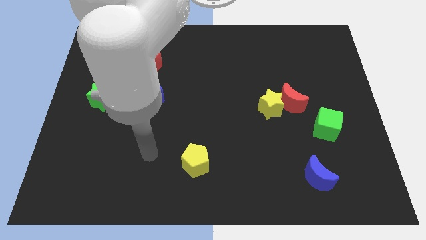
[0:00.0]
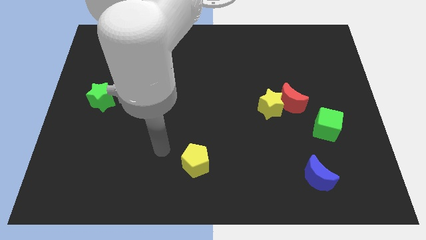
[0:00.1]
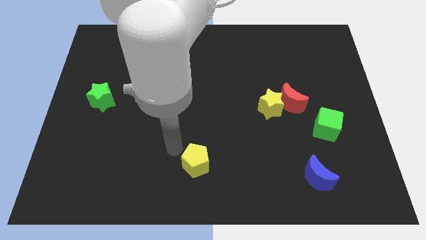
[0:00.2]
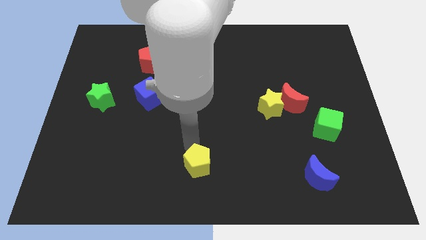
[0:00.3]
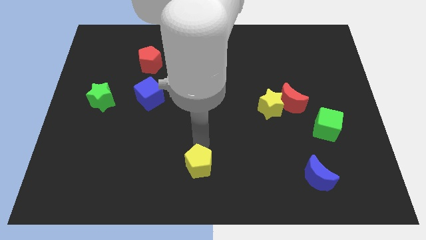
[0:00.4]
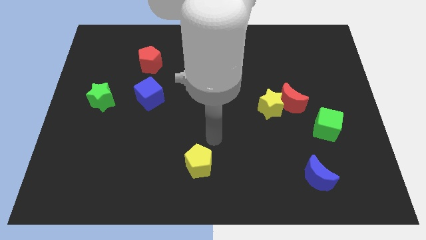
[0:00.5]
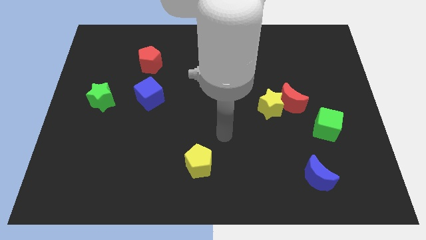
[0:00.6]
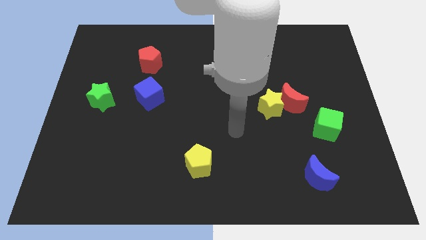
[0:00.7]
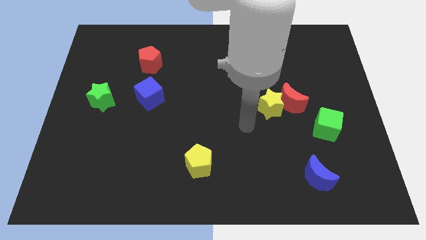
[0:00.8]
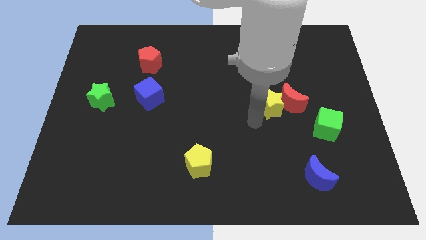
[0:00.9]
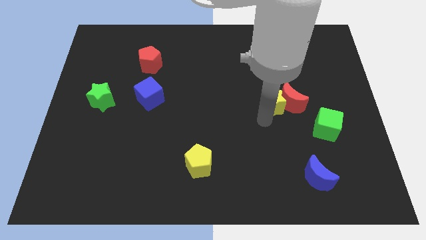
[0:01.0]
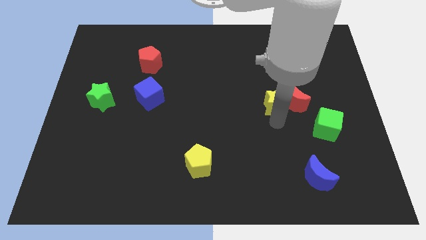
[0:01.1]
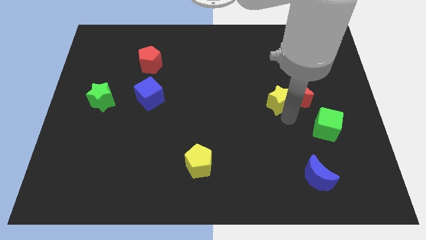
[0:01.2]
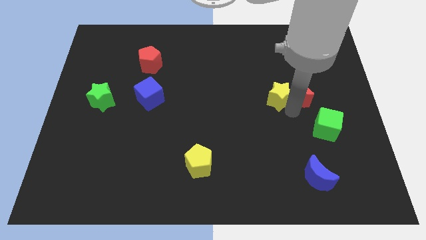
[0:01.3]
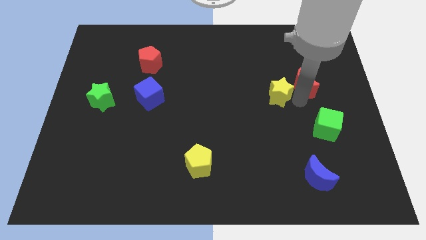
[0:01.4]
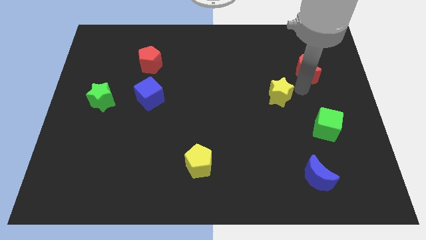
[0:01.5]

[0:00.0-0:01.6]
separate the yellow star from the red moon

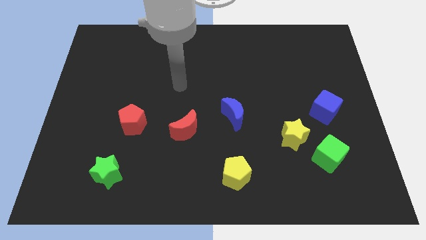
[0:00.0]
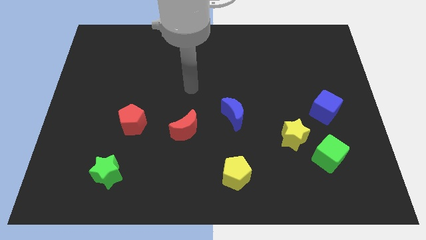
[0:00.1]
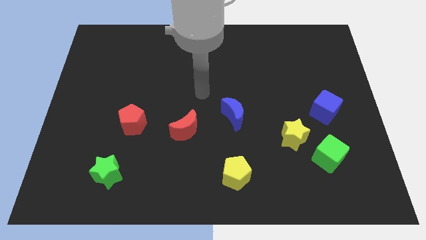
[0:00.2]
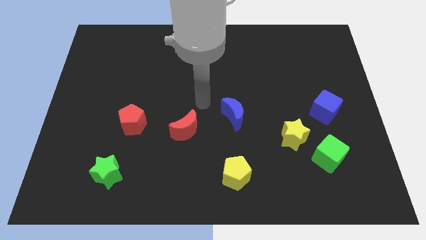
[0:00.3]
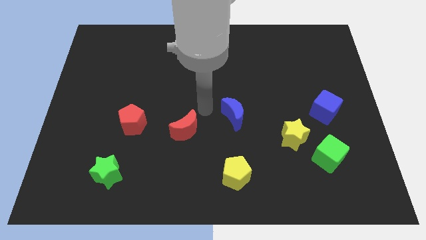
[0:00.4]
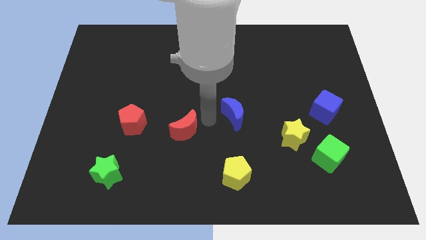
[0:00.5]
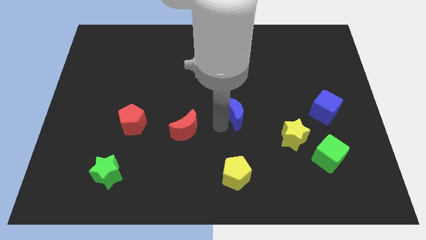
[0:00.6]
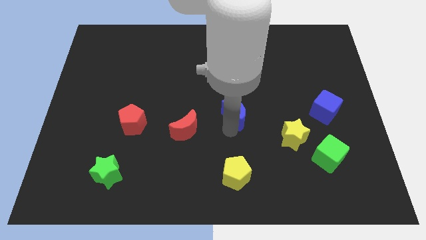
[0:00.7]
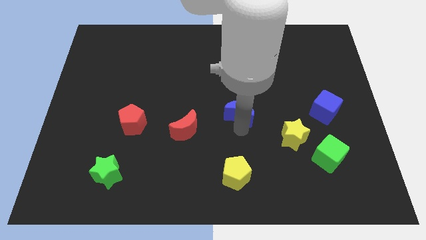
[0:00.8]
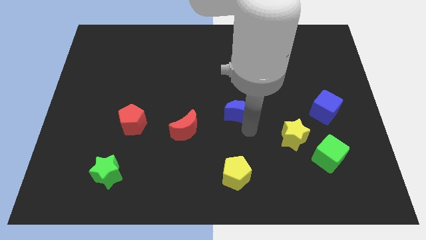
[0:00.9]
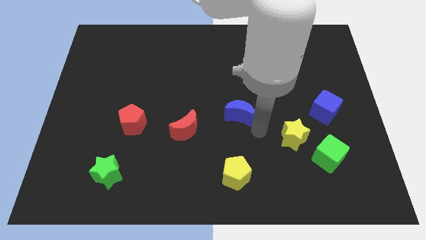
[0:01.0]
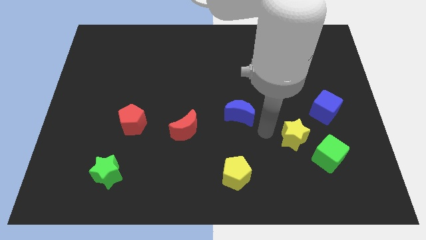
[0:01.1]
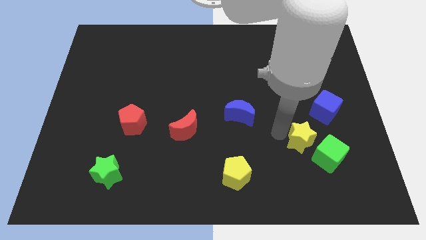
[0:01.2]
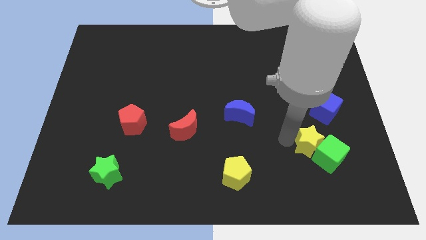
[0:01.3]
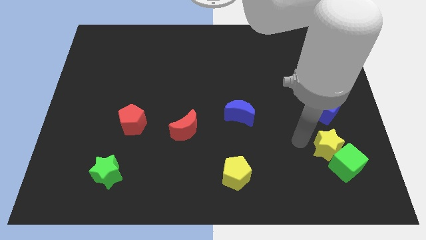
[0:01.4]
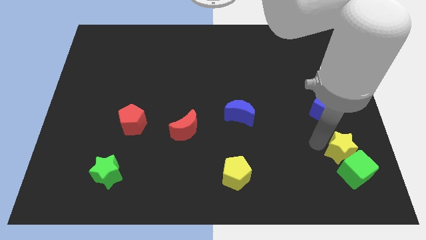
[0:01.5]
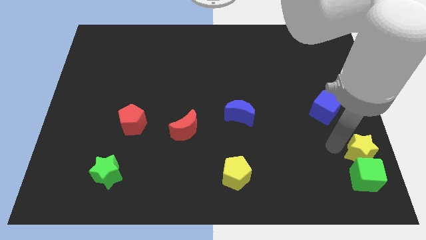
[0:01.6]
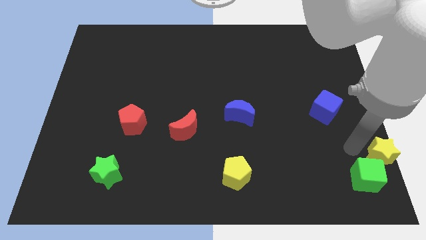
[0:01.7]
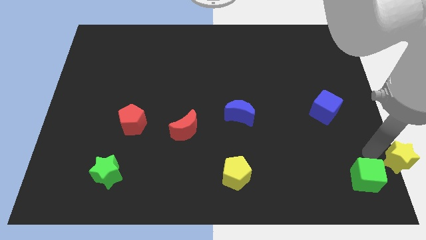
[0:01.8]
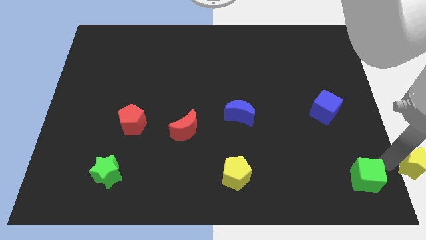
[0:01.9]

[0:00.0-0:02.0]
pull the green cube apart from the yellow star

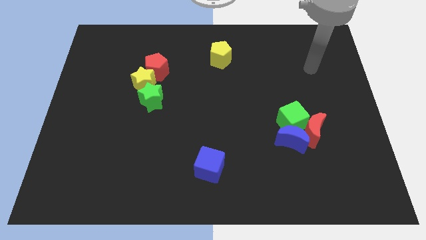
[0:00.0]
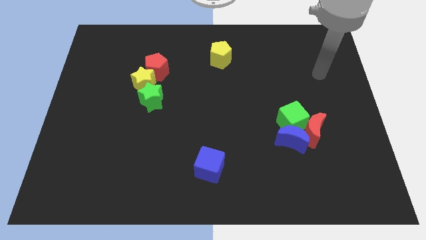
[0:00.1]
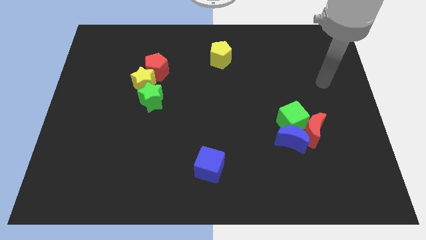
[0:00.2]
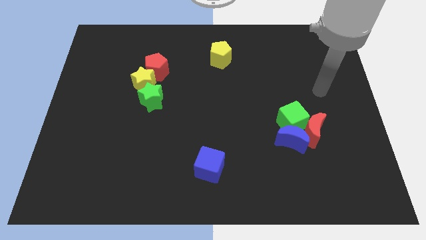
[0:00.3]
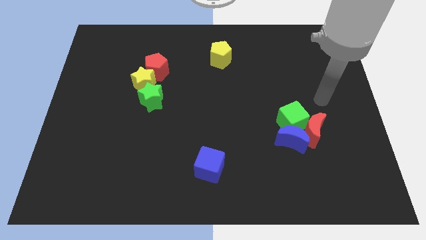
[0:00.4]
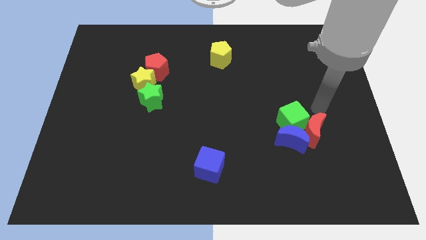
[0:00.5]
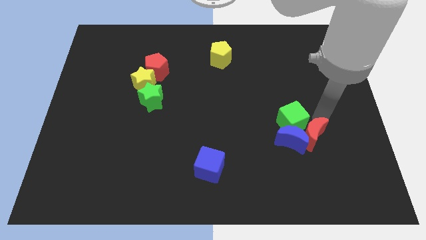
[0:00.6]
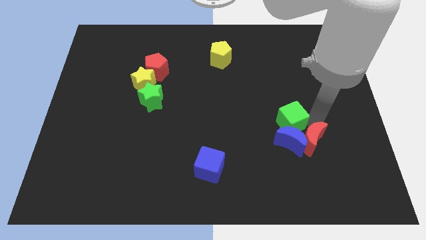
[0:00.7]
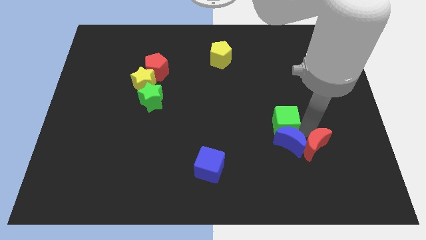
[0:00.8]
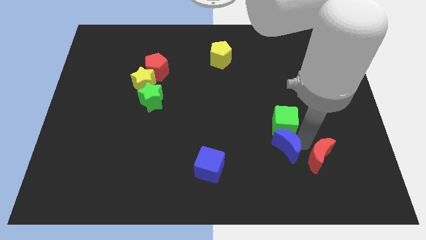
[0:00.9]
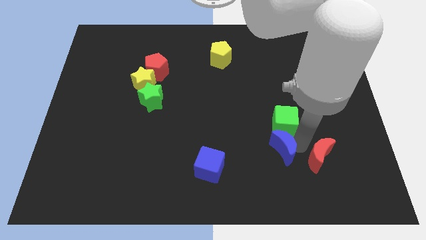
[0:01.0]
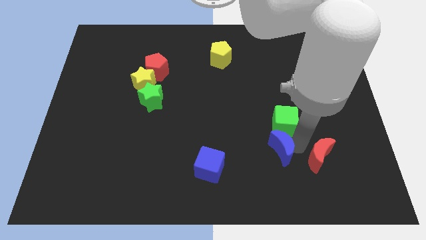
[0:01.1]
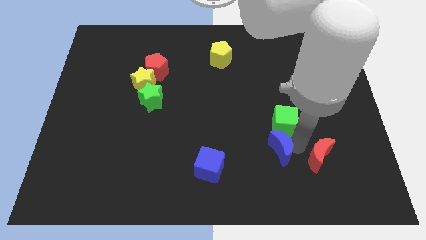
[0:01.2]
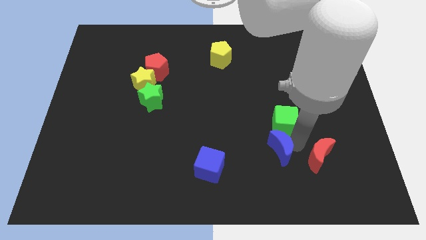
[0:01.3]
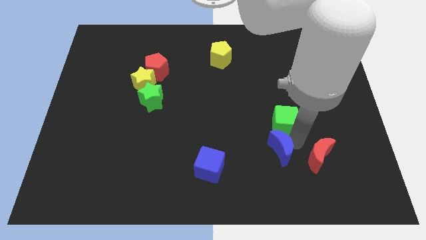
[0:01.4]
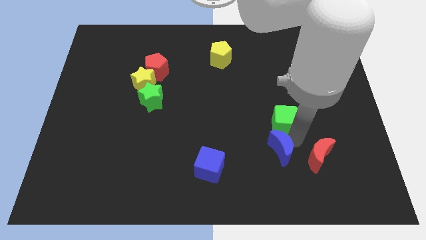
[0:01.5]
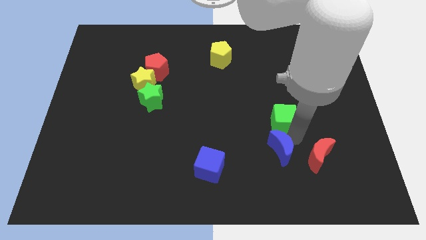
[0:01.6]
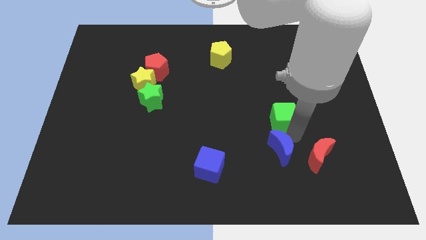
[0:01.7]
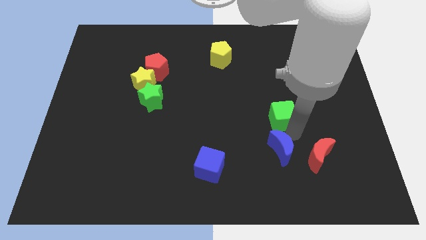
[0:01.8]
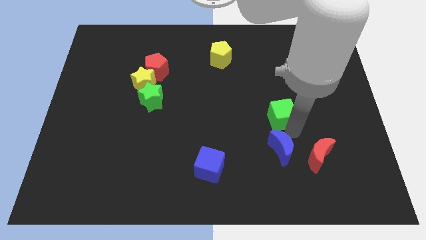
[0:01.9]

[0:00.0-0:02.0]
move the green cube away from the red moon and blue moon

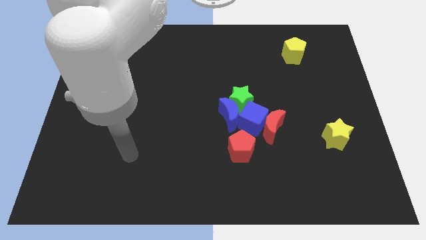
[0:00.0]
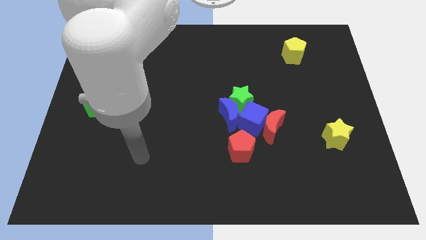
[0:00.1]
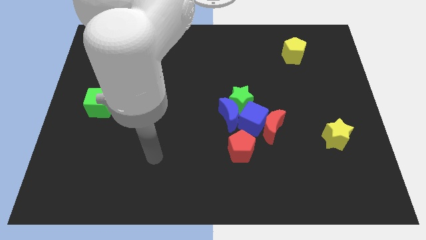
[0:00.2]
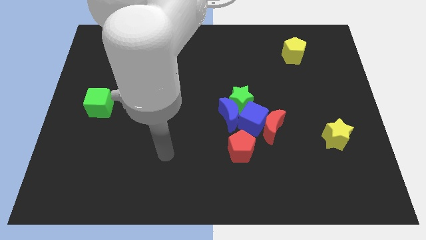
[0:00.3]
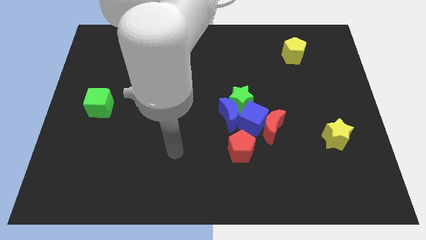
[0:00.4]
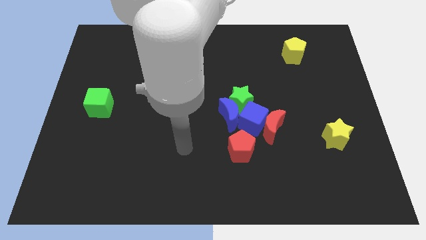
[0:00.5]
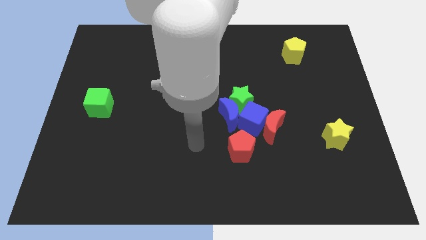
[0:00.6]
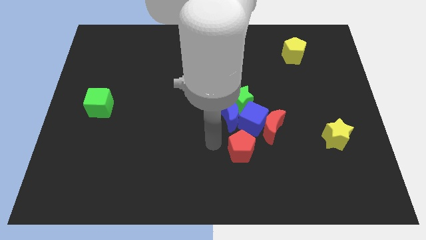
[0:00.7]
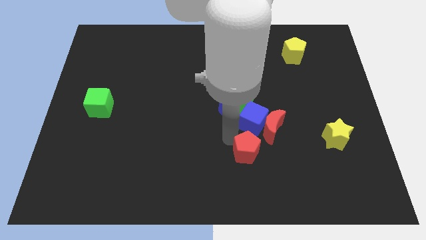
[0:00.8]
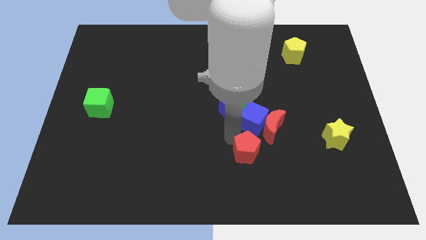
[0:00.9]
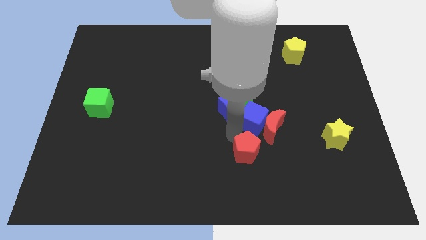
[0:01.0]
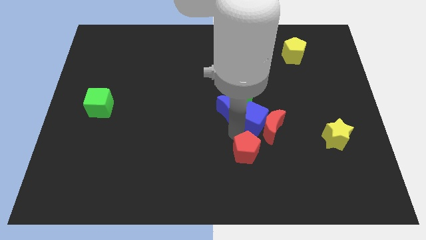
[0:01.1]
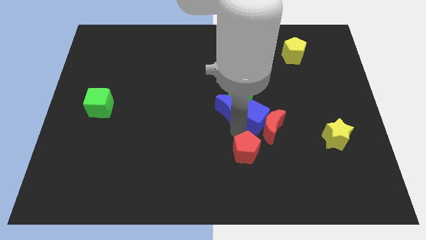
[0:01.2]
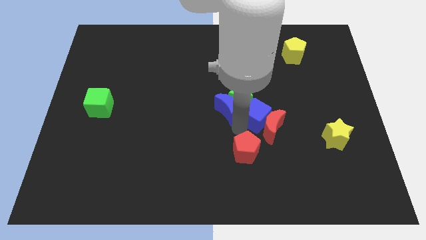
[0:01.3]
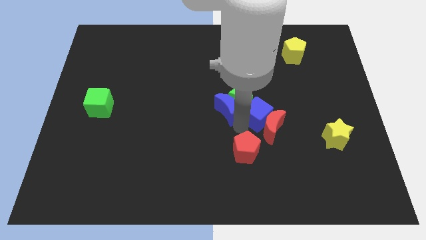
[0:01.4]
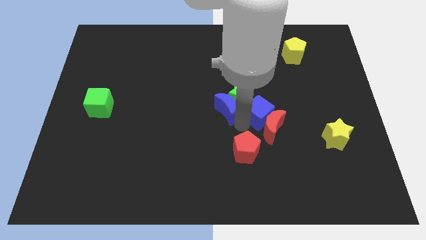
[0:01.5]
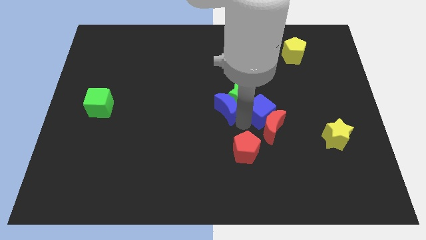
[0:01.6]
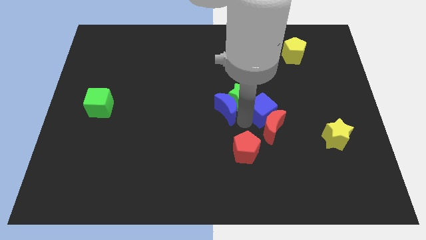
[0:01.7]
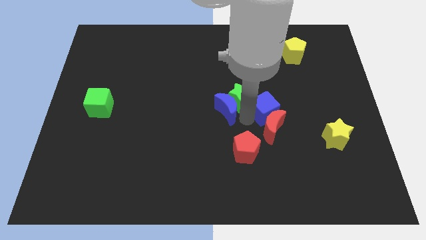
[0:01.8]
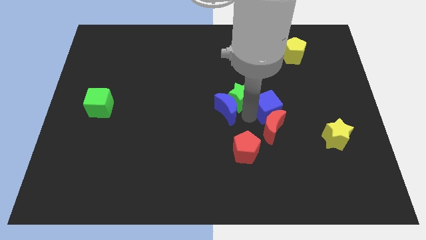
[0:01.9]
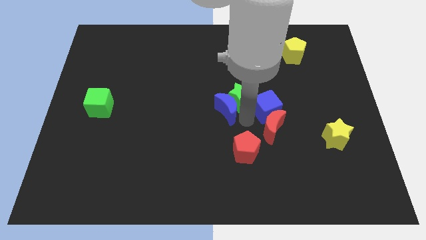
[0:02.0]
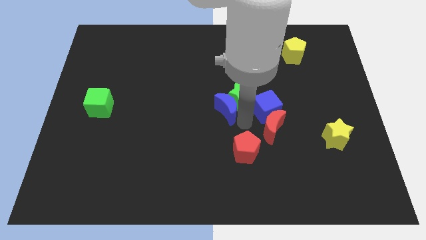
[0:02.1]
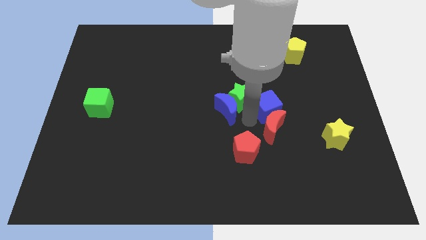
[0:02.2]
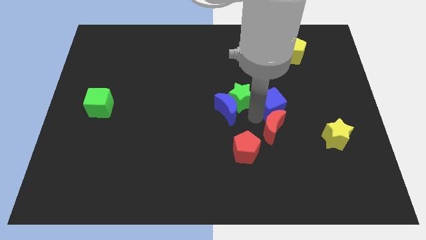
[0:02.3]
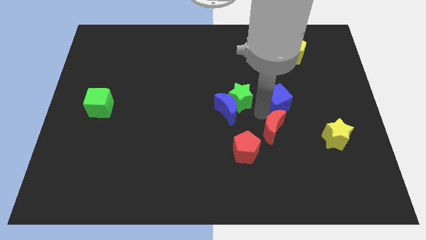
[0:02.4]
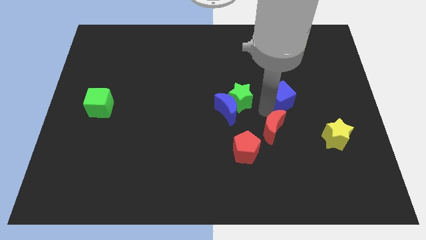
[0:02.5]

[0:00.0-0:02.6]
pull the blue cube apart from the clump

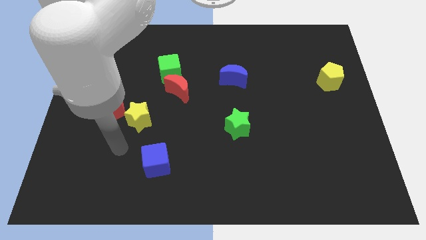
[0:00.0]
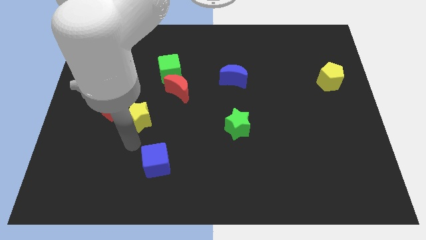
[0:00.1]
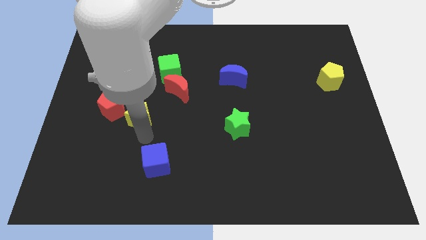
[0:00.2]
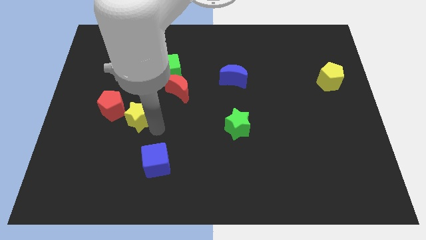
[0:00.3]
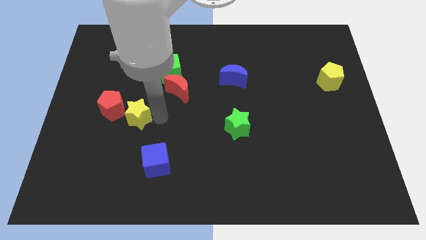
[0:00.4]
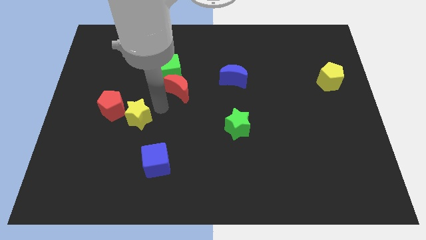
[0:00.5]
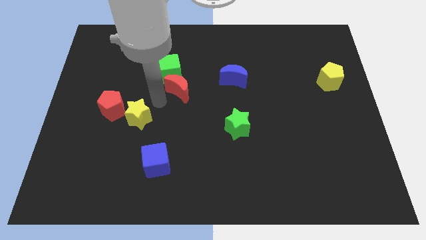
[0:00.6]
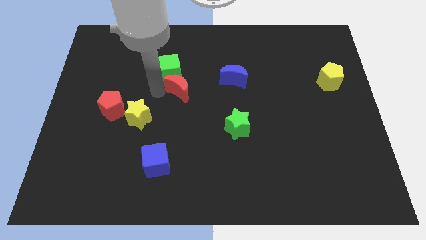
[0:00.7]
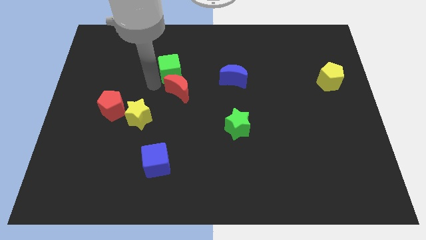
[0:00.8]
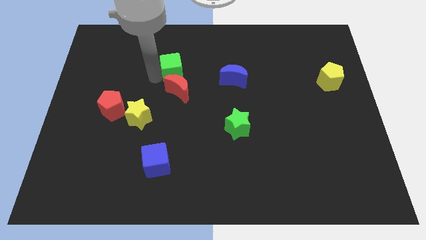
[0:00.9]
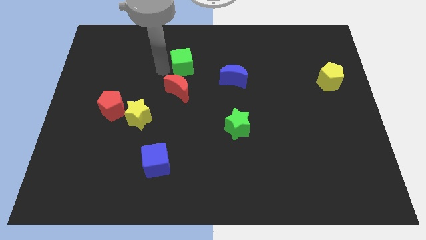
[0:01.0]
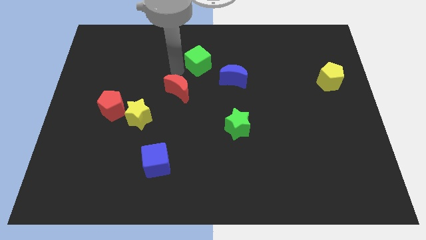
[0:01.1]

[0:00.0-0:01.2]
pull the red moon apart from the green cube
